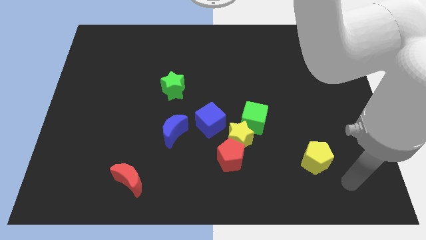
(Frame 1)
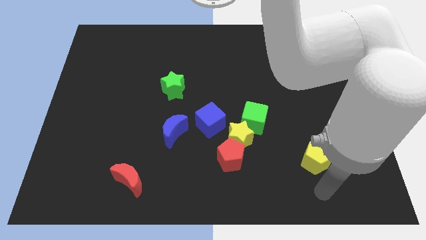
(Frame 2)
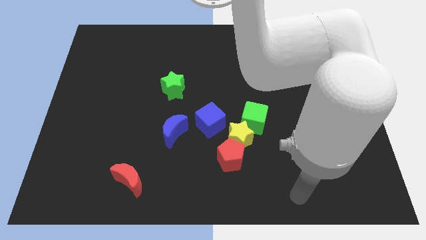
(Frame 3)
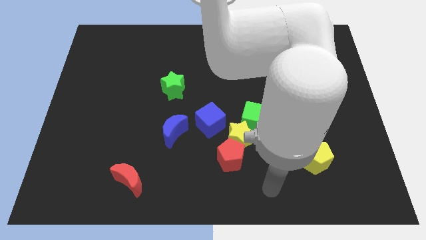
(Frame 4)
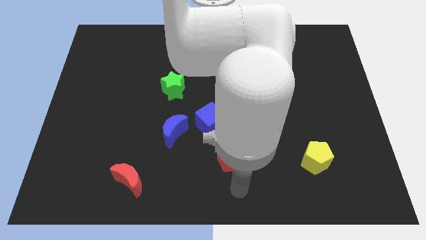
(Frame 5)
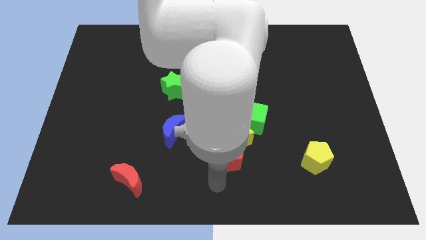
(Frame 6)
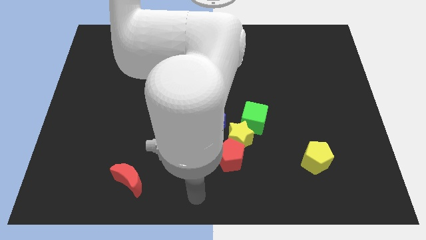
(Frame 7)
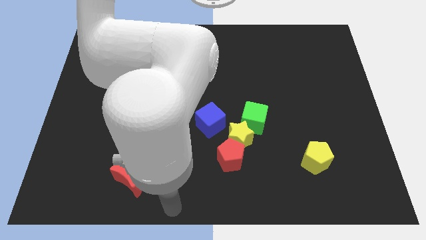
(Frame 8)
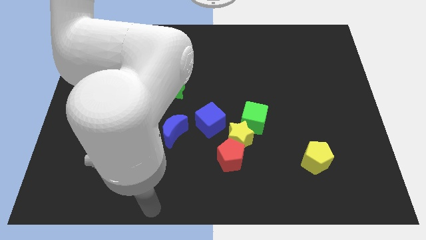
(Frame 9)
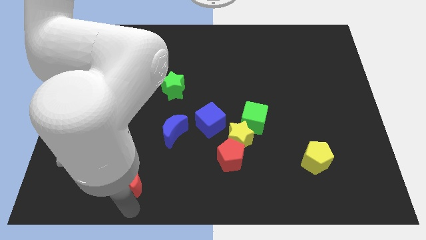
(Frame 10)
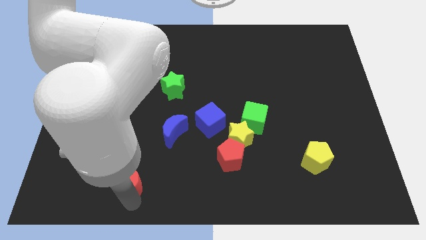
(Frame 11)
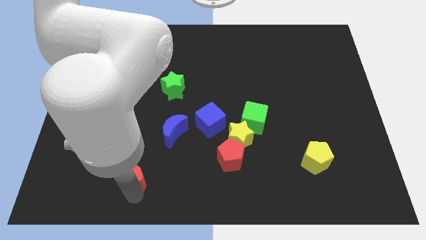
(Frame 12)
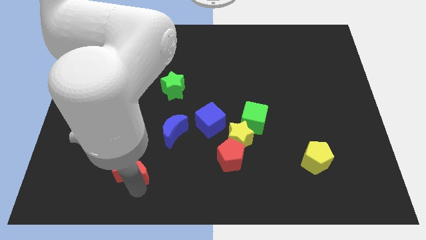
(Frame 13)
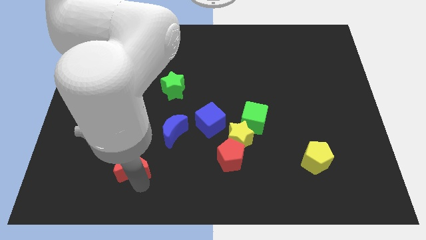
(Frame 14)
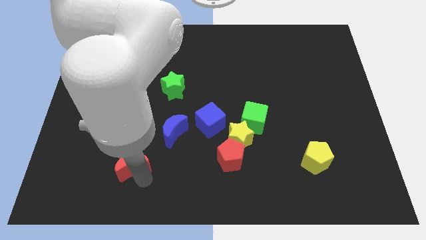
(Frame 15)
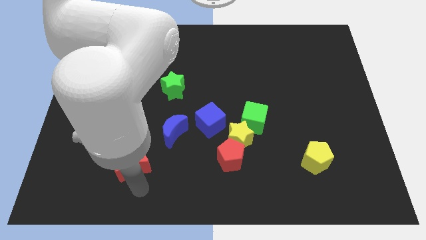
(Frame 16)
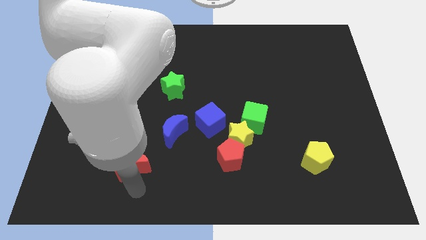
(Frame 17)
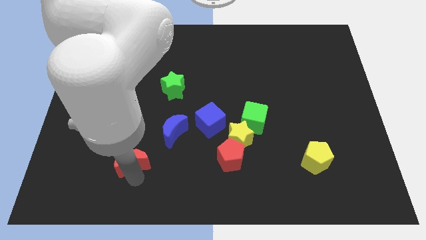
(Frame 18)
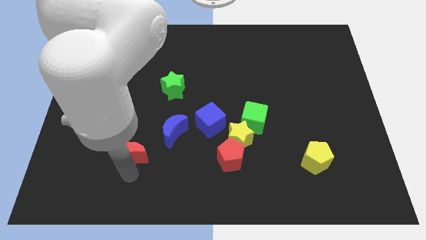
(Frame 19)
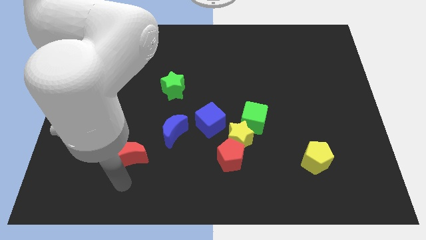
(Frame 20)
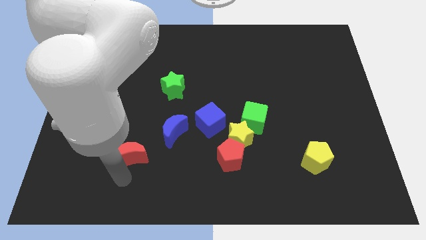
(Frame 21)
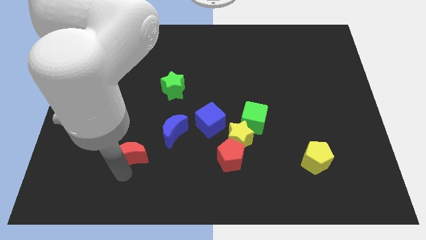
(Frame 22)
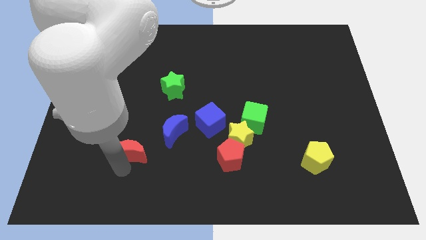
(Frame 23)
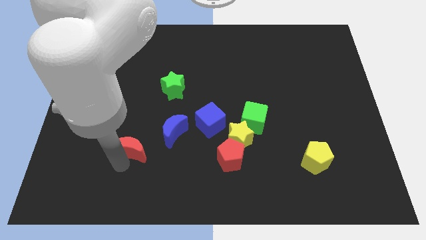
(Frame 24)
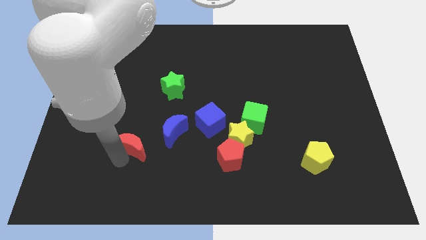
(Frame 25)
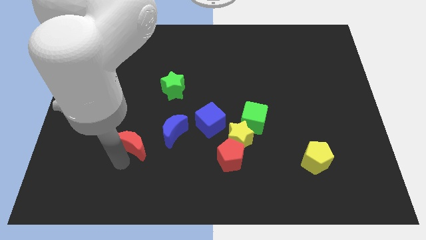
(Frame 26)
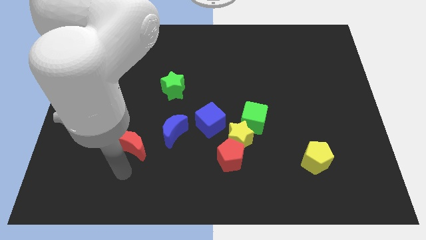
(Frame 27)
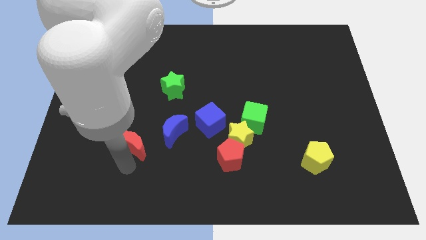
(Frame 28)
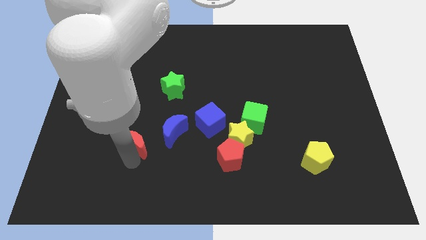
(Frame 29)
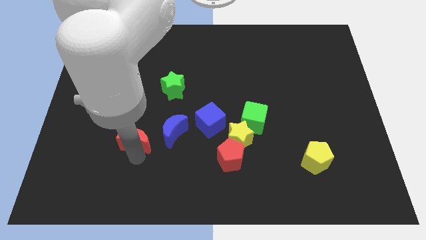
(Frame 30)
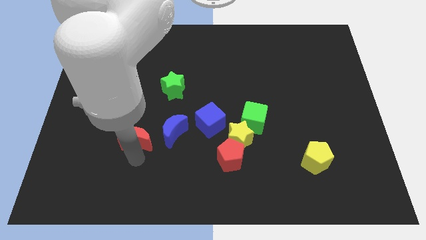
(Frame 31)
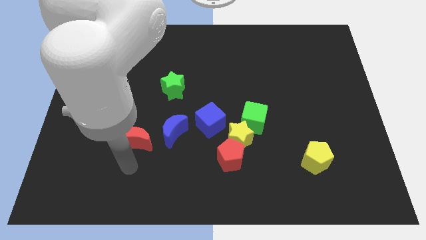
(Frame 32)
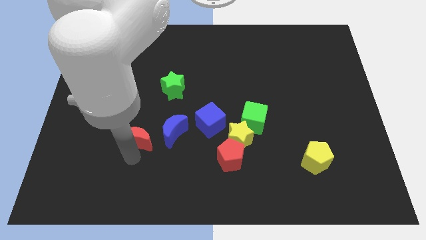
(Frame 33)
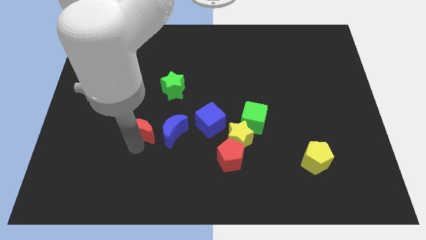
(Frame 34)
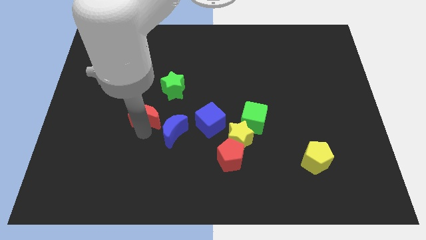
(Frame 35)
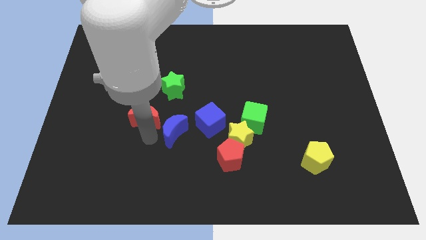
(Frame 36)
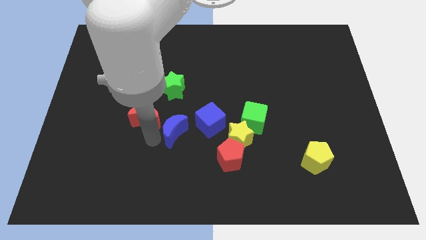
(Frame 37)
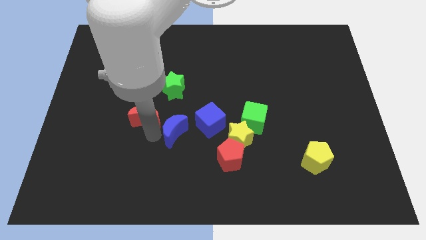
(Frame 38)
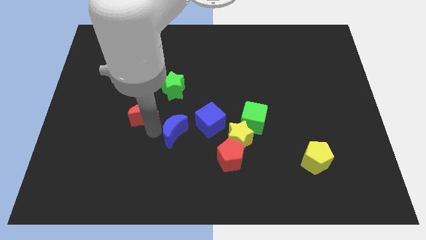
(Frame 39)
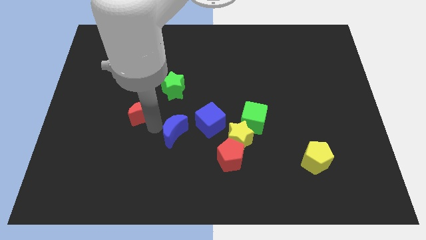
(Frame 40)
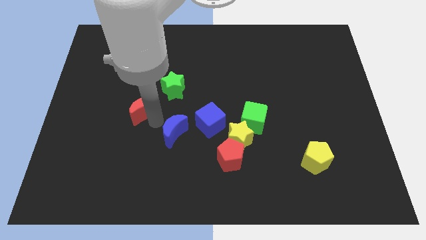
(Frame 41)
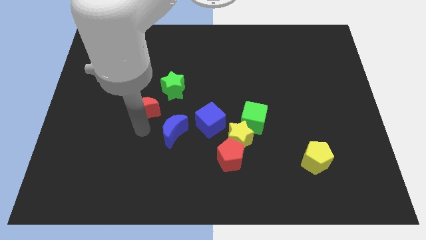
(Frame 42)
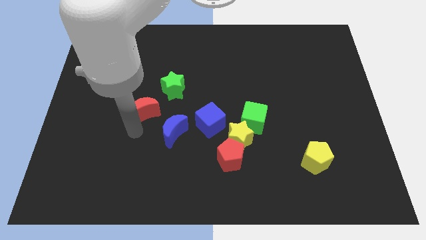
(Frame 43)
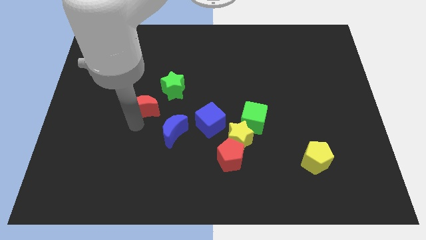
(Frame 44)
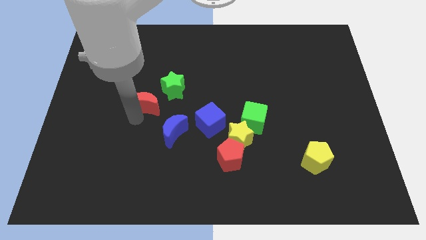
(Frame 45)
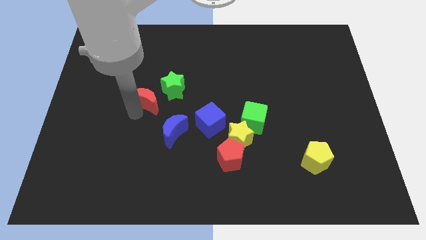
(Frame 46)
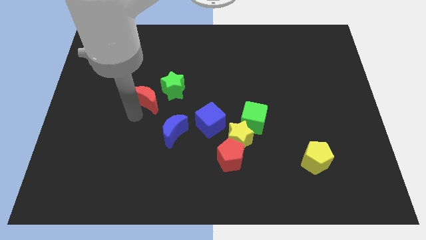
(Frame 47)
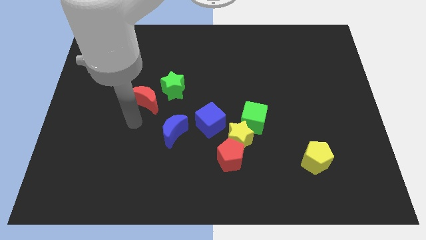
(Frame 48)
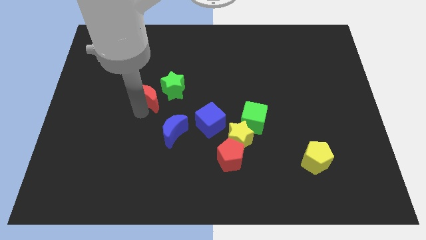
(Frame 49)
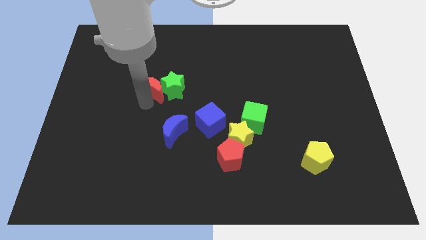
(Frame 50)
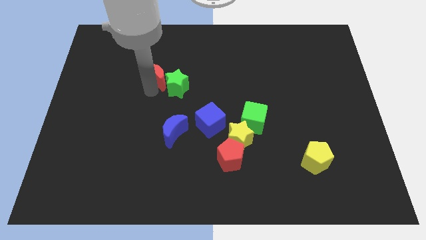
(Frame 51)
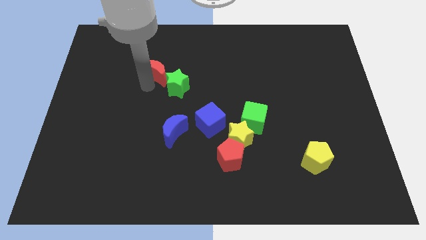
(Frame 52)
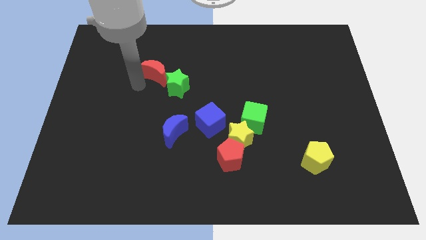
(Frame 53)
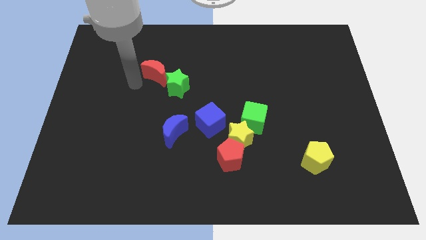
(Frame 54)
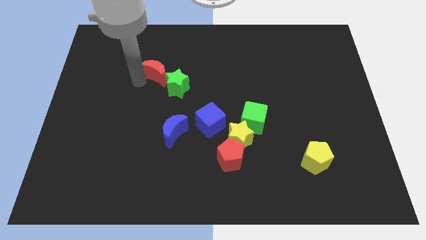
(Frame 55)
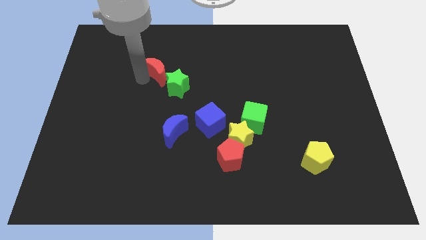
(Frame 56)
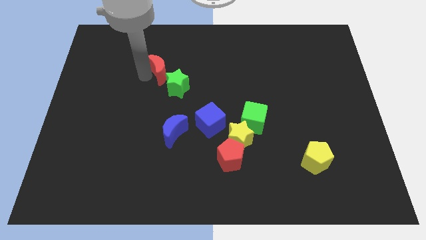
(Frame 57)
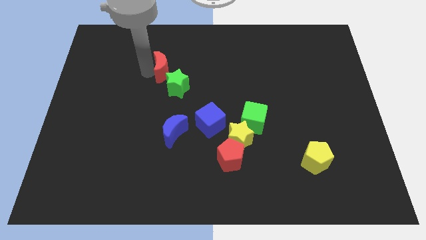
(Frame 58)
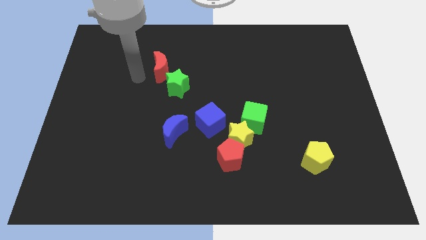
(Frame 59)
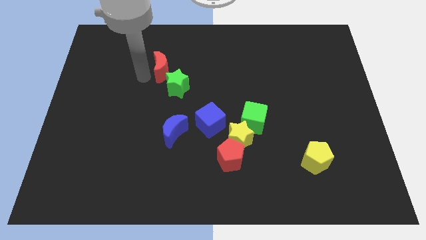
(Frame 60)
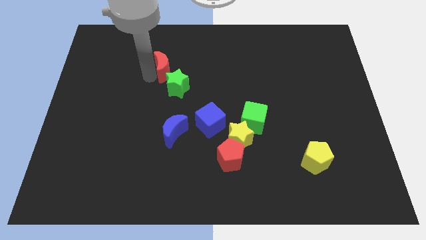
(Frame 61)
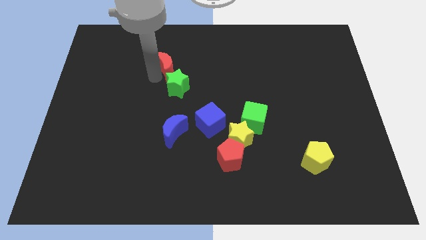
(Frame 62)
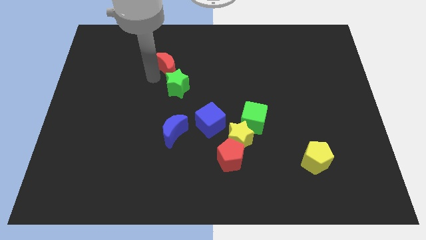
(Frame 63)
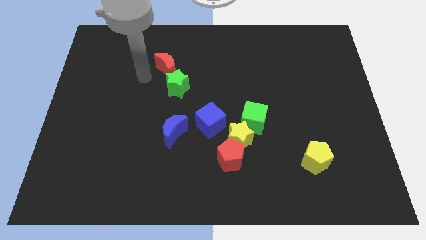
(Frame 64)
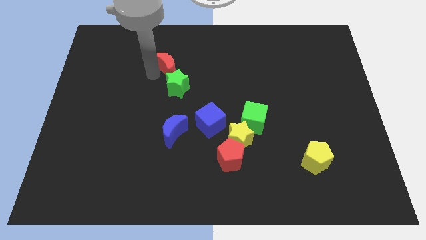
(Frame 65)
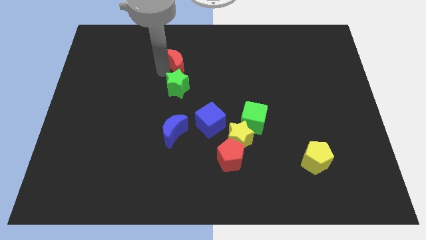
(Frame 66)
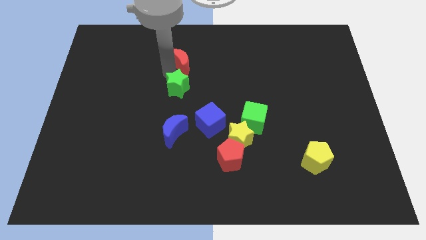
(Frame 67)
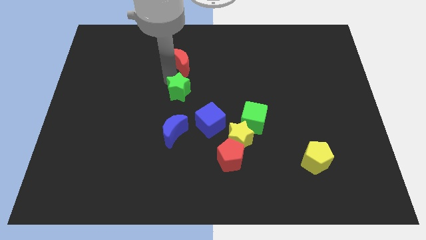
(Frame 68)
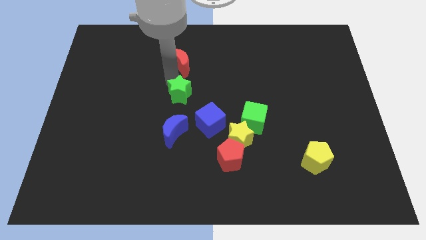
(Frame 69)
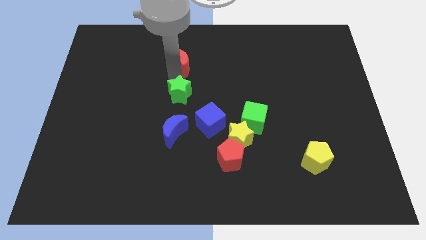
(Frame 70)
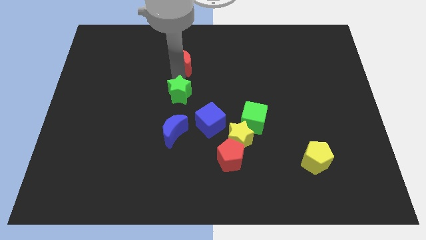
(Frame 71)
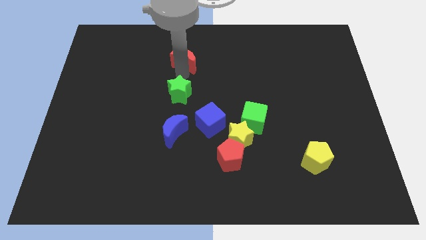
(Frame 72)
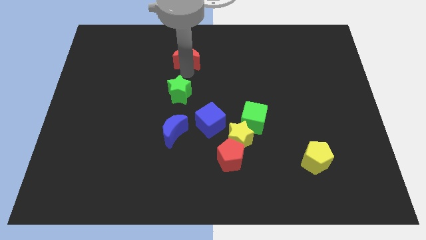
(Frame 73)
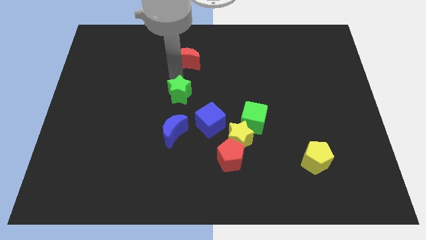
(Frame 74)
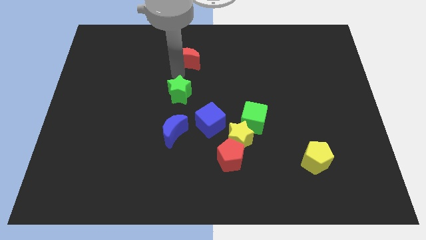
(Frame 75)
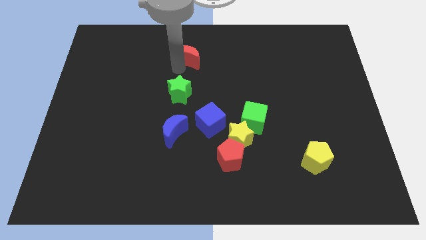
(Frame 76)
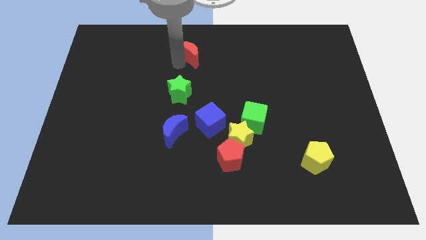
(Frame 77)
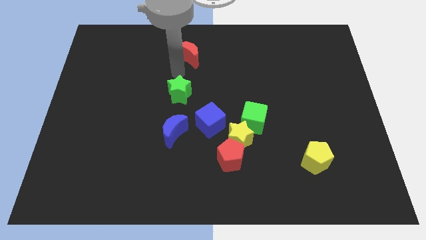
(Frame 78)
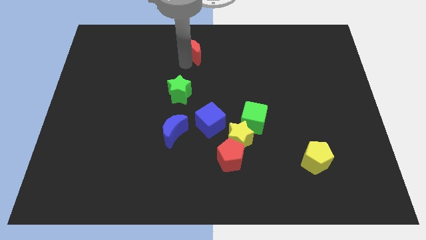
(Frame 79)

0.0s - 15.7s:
move the red moon to the towards your base
